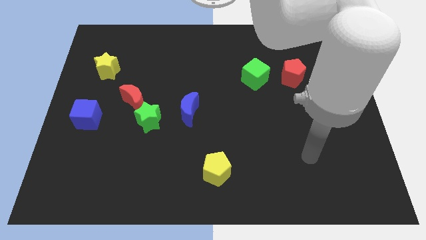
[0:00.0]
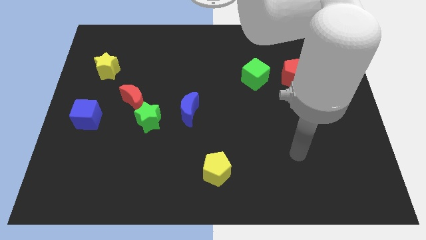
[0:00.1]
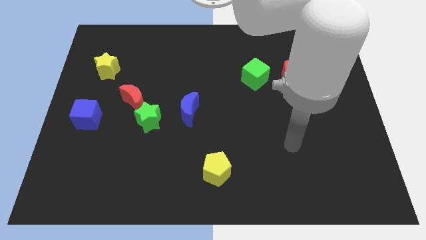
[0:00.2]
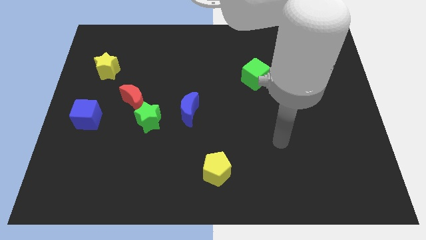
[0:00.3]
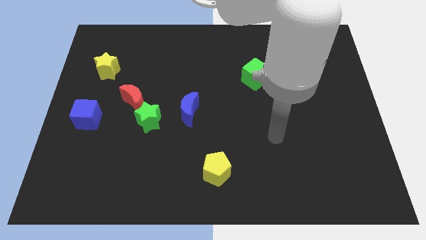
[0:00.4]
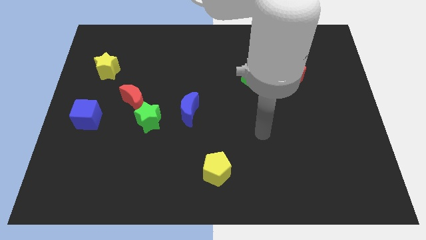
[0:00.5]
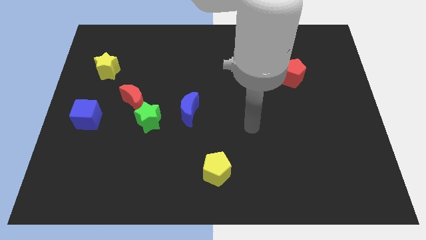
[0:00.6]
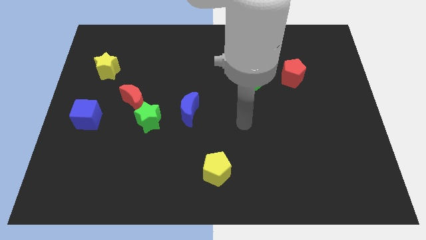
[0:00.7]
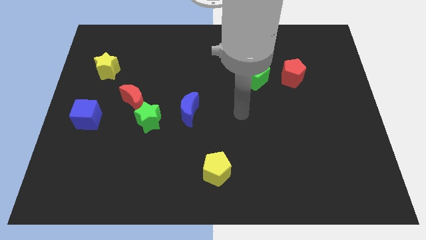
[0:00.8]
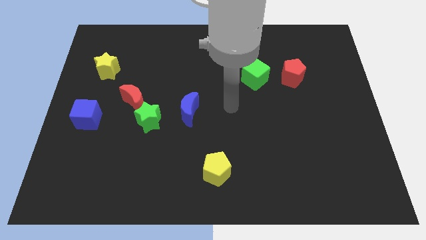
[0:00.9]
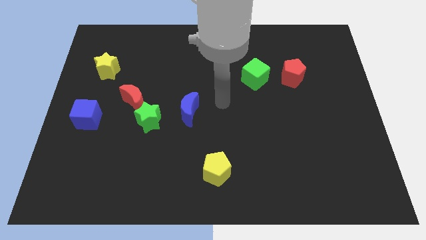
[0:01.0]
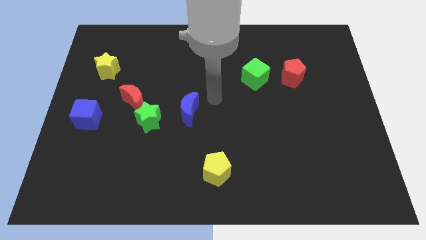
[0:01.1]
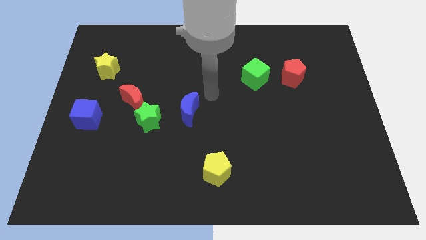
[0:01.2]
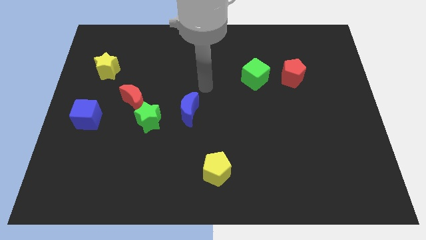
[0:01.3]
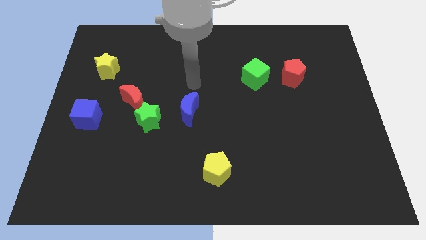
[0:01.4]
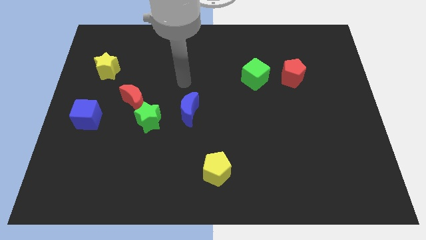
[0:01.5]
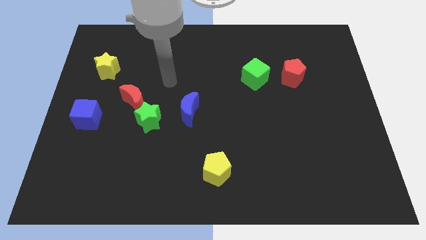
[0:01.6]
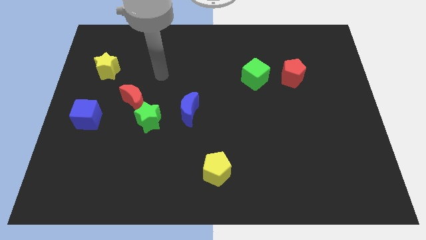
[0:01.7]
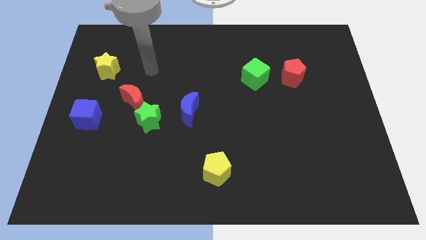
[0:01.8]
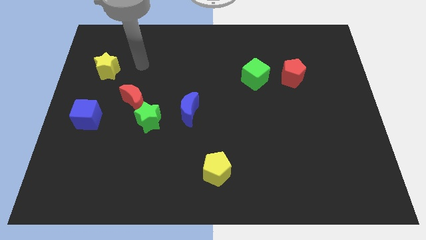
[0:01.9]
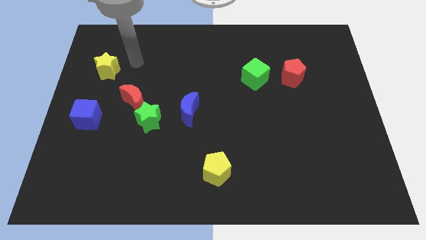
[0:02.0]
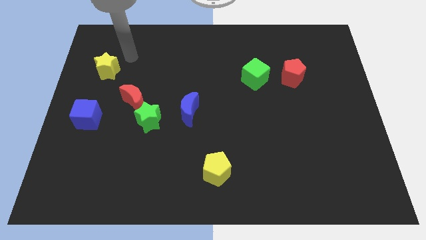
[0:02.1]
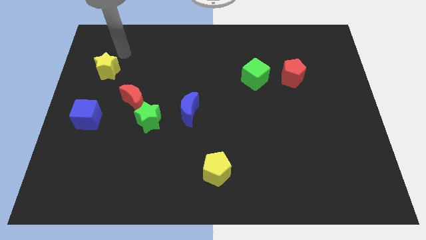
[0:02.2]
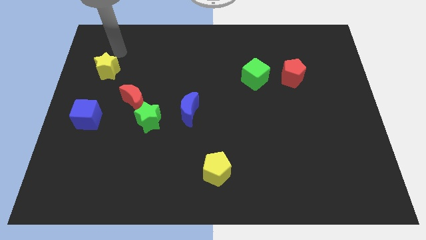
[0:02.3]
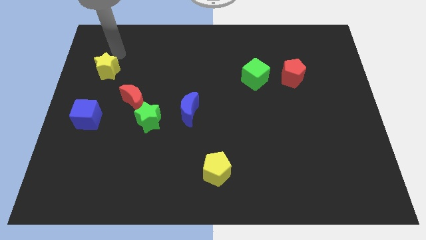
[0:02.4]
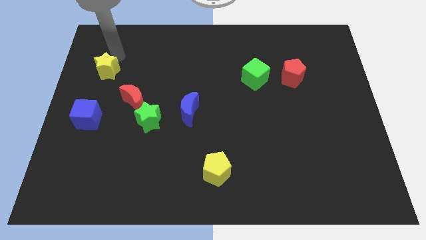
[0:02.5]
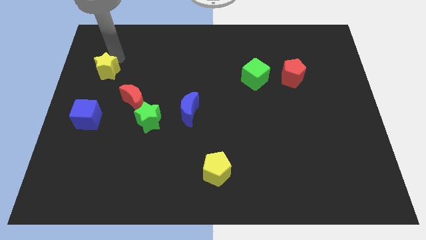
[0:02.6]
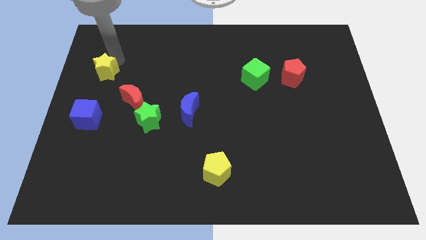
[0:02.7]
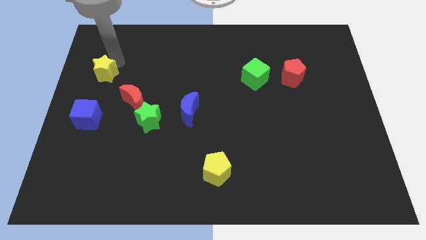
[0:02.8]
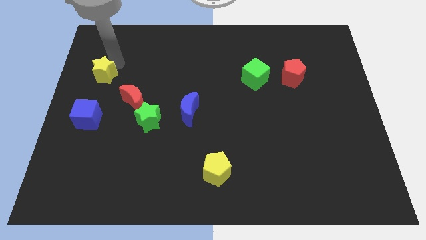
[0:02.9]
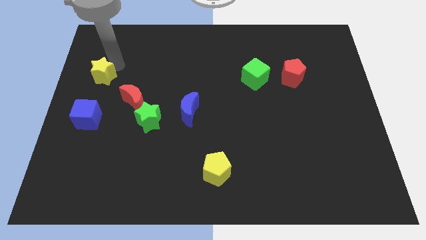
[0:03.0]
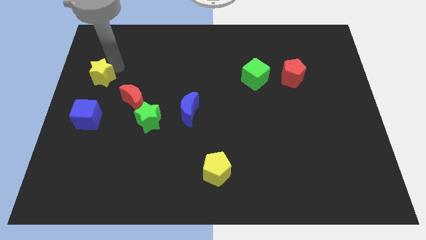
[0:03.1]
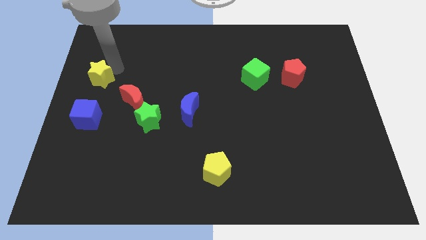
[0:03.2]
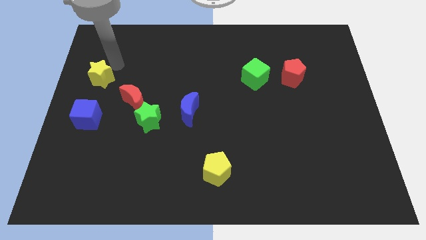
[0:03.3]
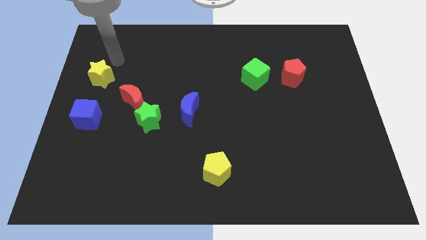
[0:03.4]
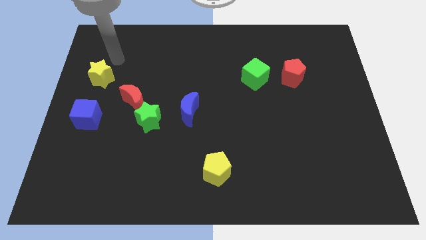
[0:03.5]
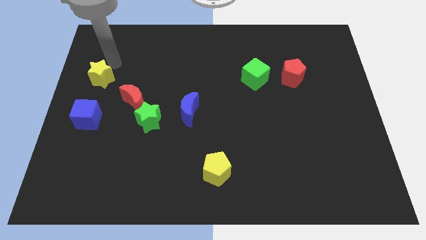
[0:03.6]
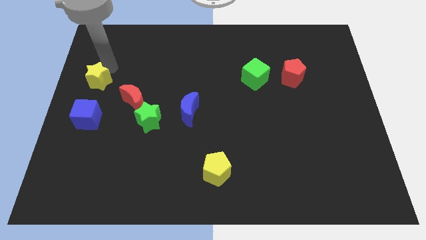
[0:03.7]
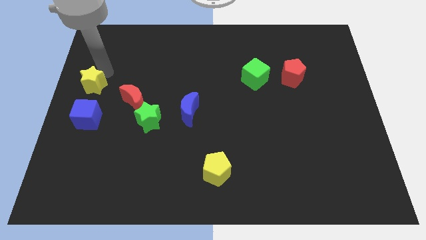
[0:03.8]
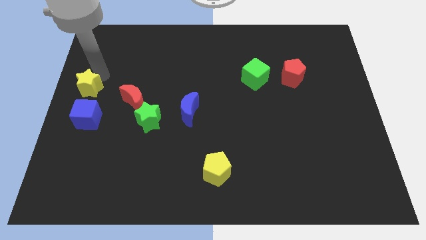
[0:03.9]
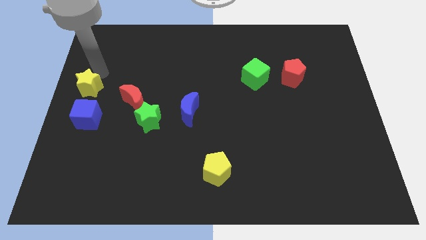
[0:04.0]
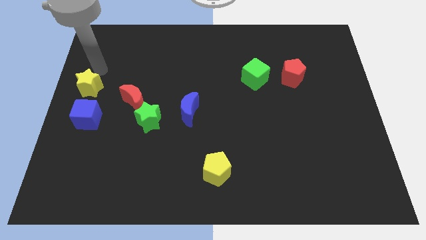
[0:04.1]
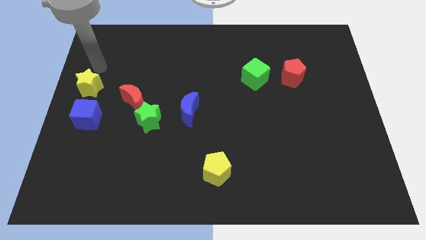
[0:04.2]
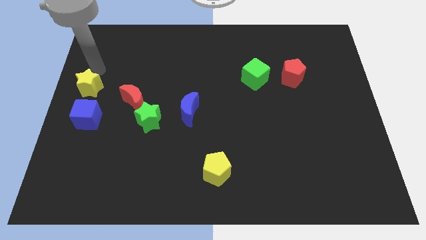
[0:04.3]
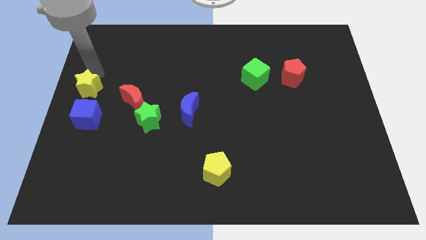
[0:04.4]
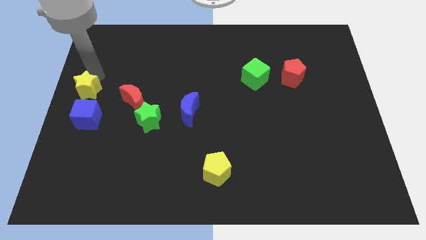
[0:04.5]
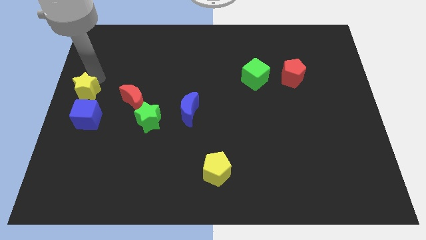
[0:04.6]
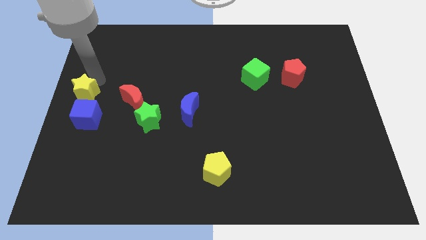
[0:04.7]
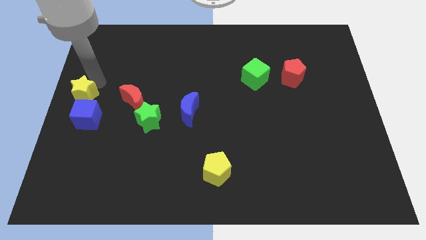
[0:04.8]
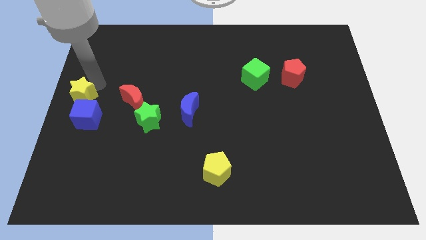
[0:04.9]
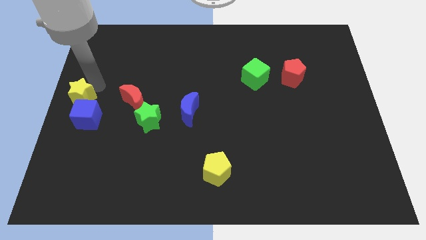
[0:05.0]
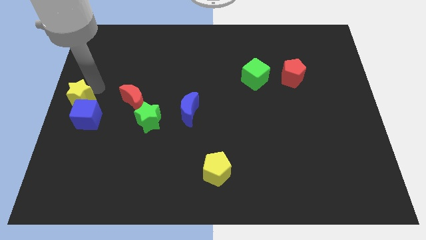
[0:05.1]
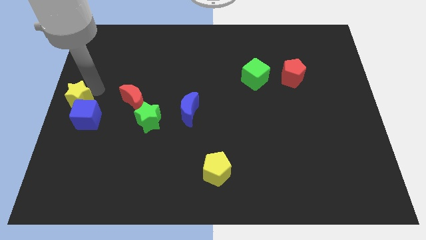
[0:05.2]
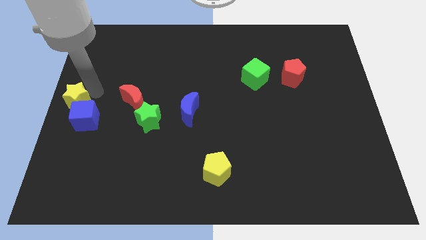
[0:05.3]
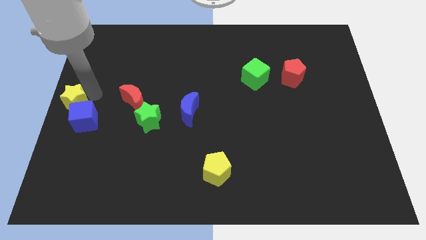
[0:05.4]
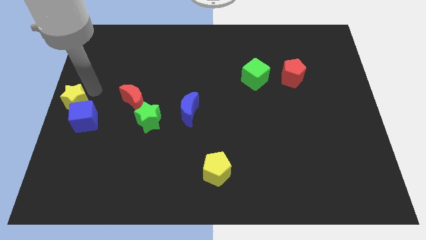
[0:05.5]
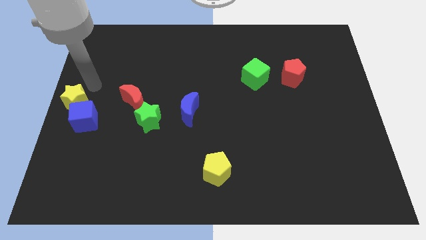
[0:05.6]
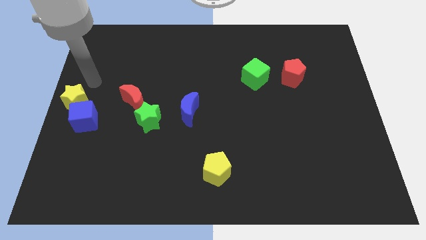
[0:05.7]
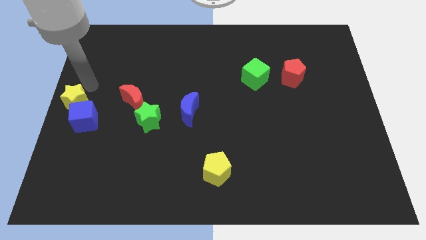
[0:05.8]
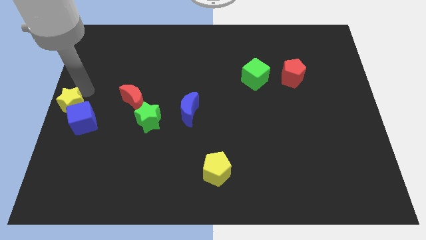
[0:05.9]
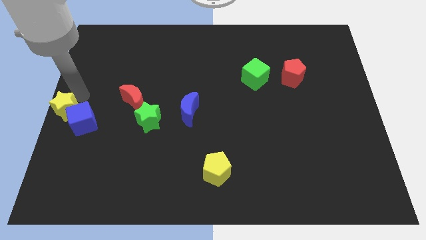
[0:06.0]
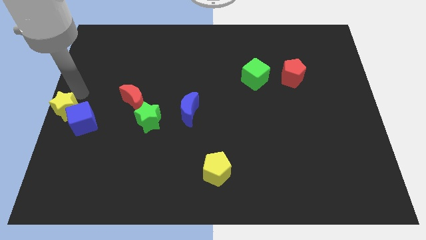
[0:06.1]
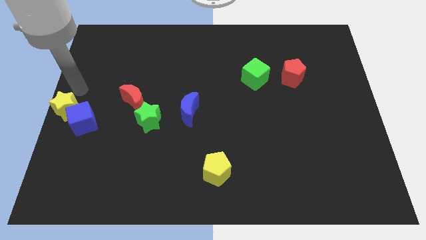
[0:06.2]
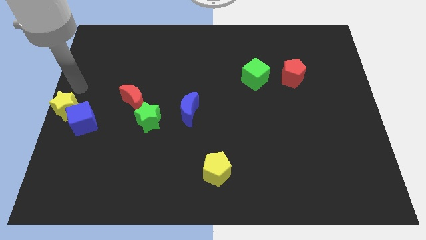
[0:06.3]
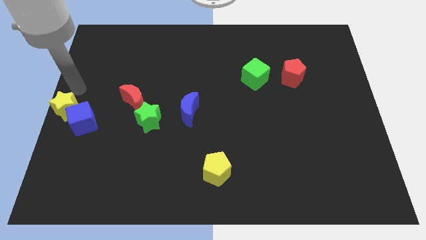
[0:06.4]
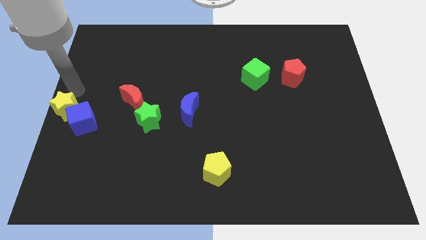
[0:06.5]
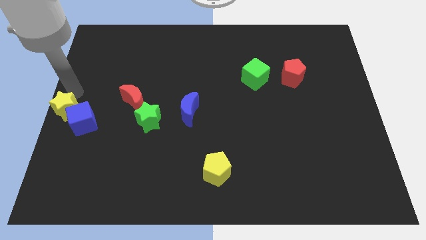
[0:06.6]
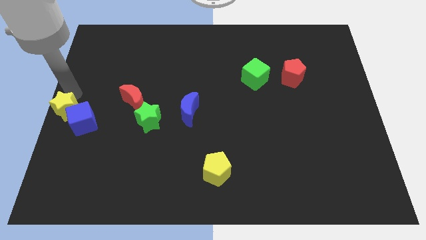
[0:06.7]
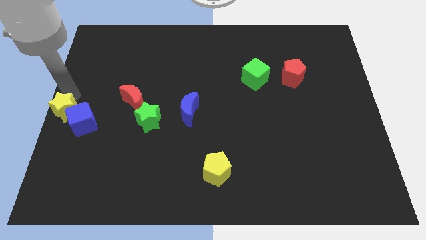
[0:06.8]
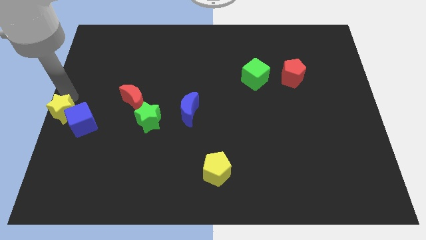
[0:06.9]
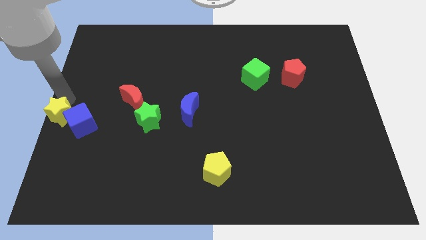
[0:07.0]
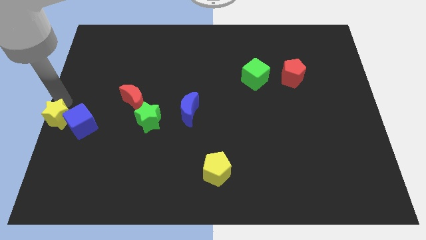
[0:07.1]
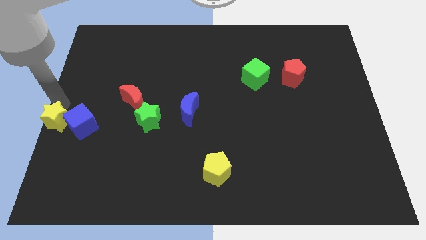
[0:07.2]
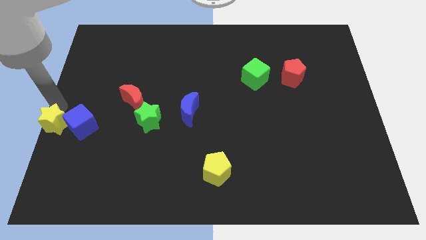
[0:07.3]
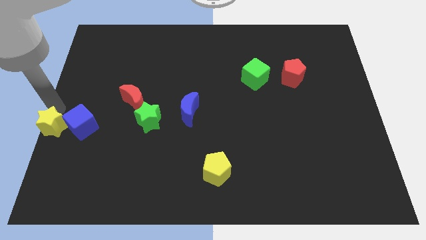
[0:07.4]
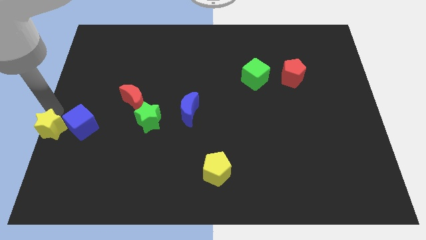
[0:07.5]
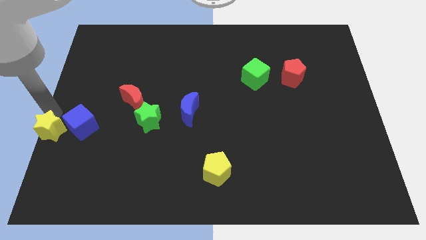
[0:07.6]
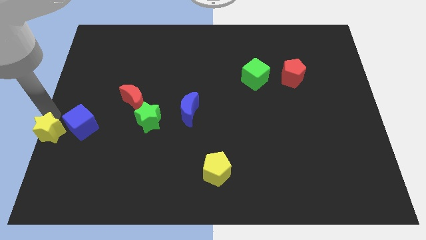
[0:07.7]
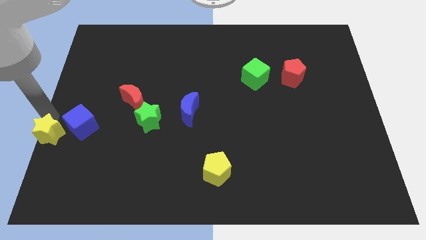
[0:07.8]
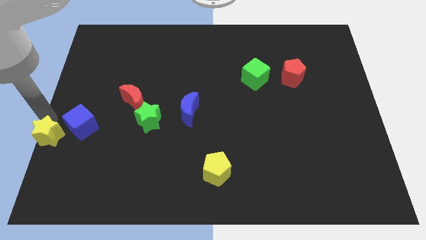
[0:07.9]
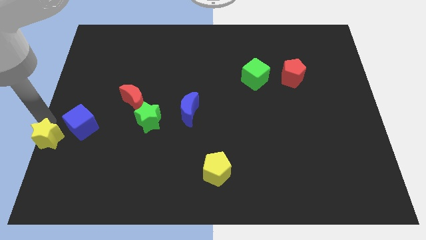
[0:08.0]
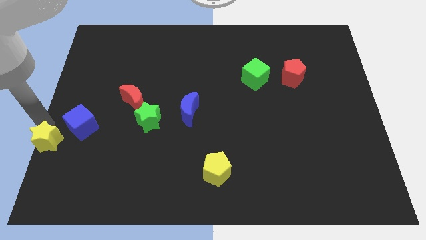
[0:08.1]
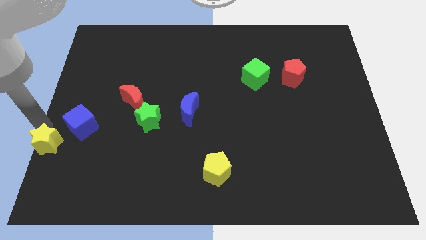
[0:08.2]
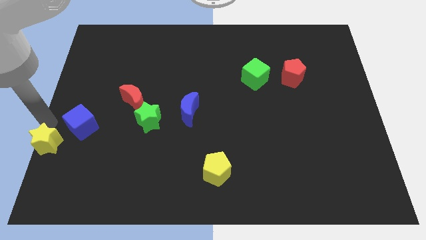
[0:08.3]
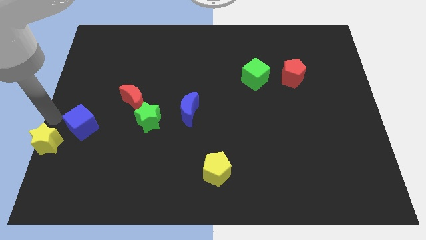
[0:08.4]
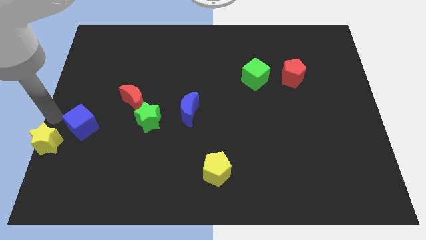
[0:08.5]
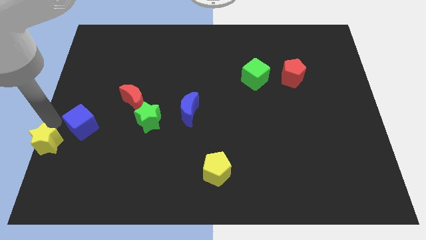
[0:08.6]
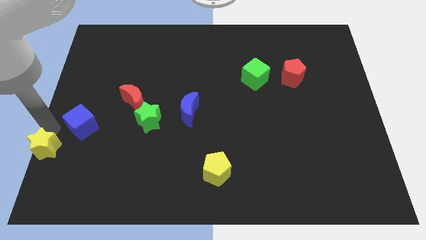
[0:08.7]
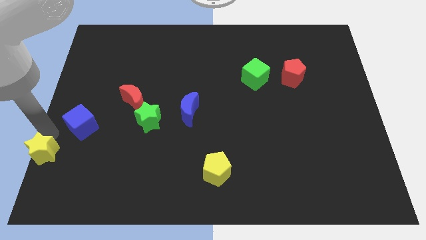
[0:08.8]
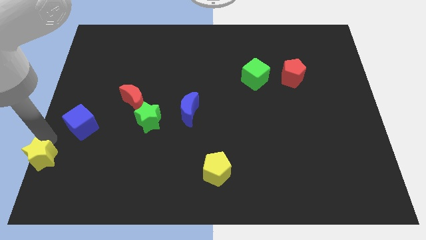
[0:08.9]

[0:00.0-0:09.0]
put the yellow star to the lower left corner
